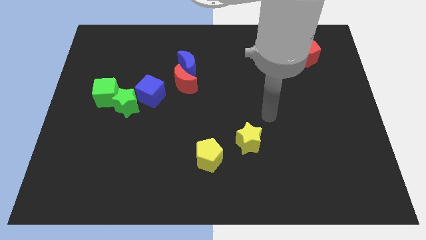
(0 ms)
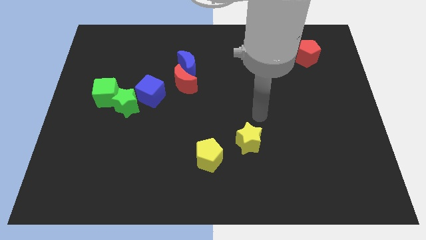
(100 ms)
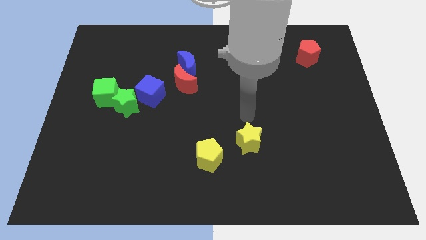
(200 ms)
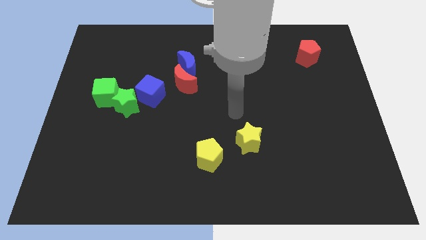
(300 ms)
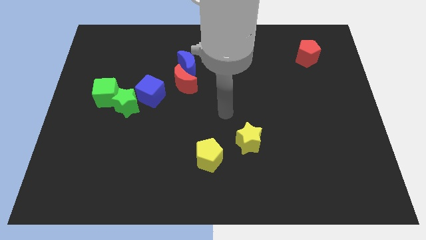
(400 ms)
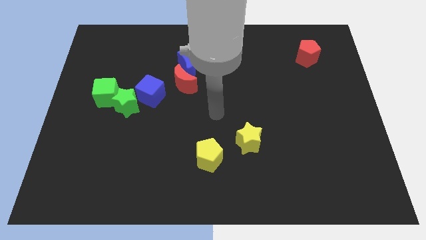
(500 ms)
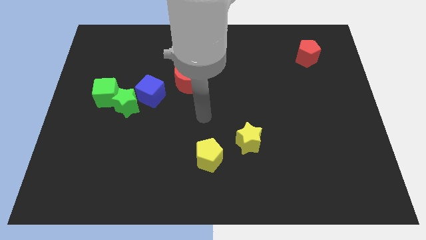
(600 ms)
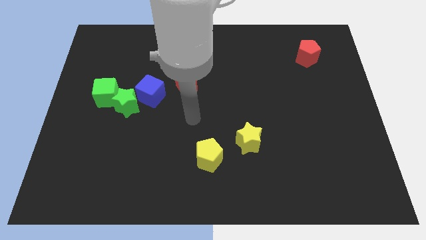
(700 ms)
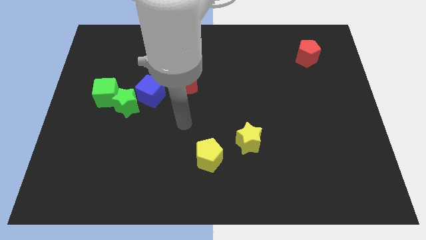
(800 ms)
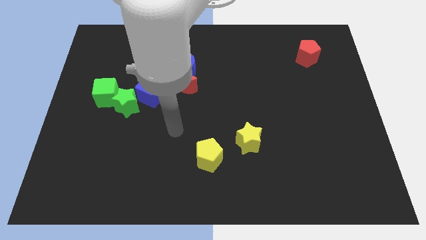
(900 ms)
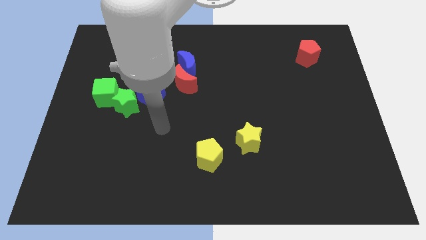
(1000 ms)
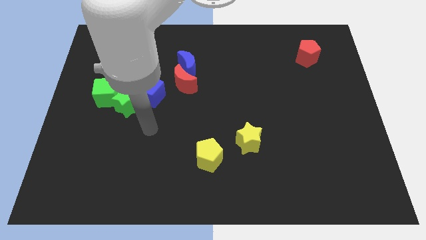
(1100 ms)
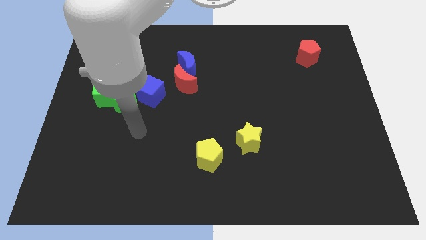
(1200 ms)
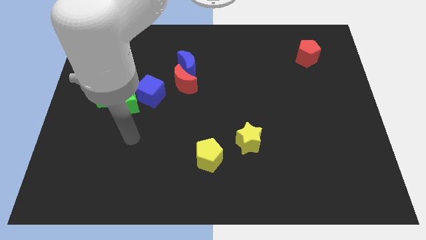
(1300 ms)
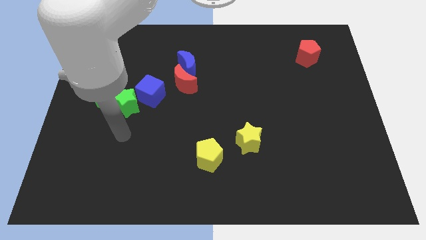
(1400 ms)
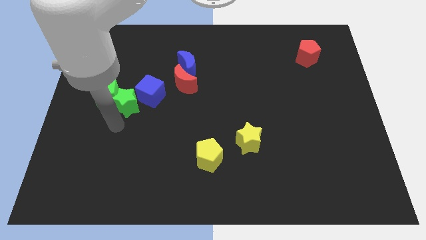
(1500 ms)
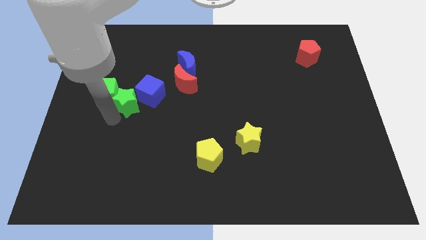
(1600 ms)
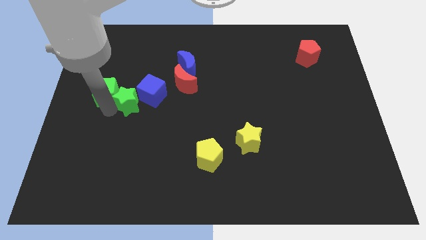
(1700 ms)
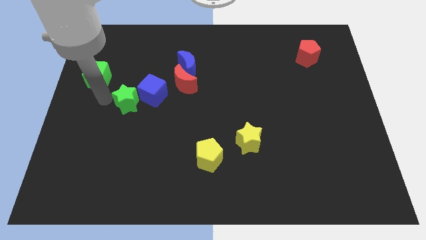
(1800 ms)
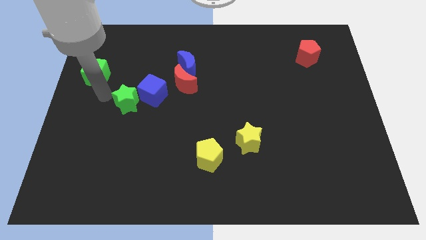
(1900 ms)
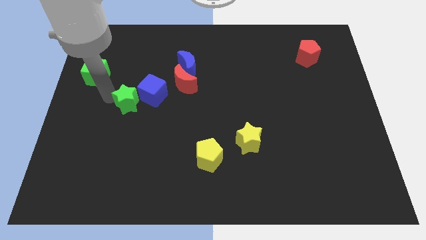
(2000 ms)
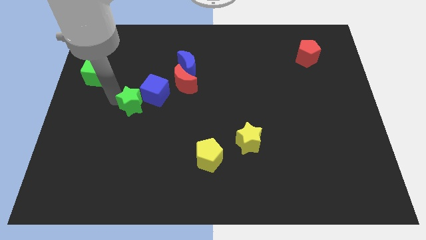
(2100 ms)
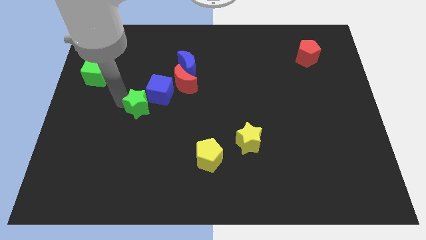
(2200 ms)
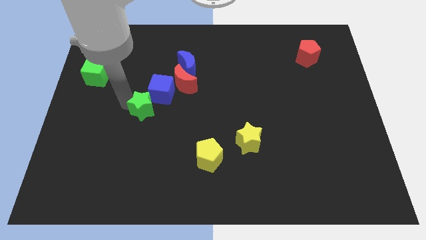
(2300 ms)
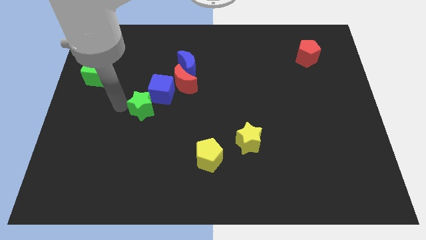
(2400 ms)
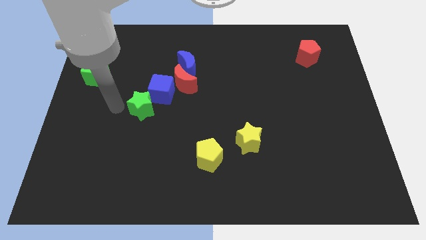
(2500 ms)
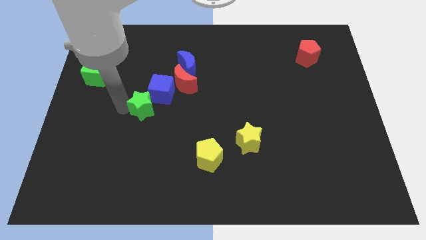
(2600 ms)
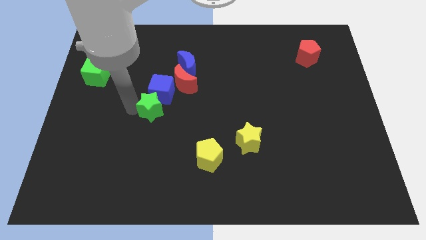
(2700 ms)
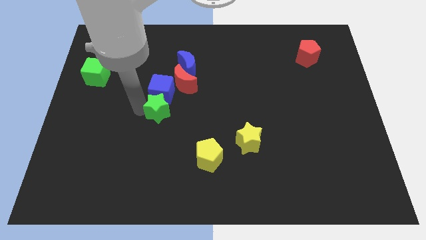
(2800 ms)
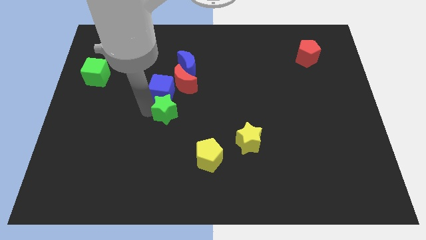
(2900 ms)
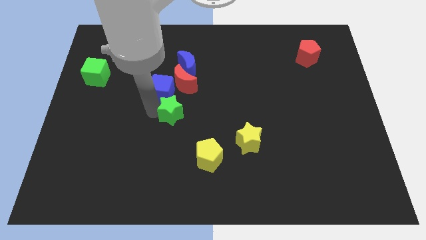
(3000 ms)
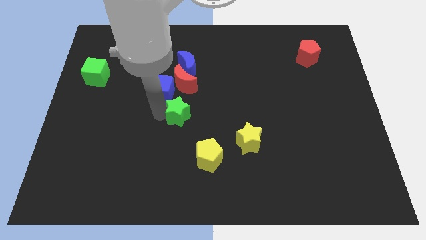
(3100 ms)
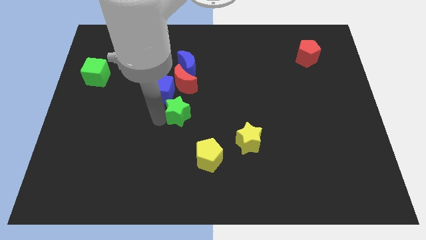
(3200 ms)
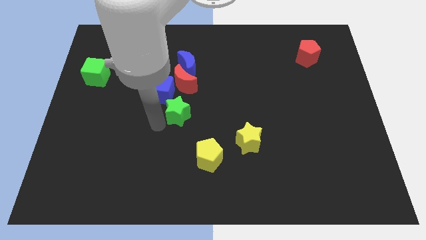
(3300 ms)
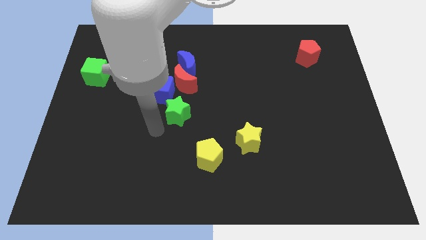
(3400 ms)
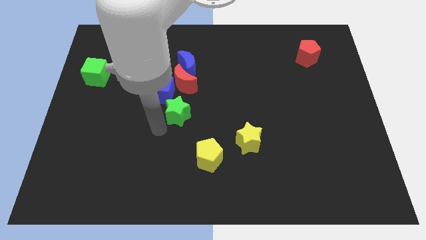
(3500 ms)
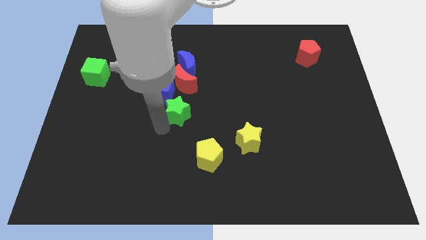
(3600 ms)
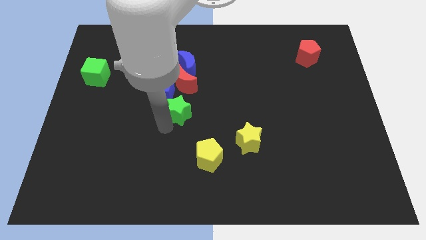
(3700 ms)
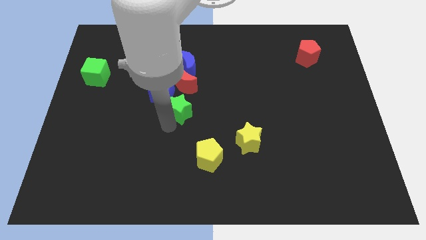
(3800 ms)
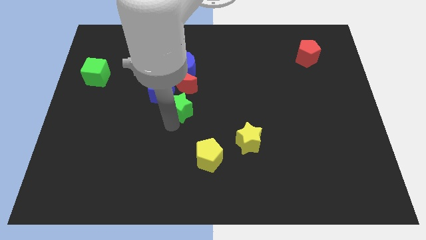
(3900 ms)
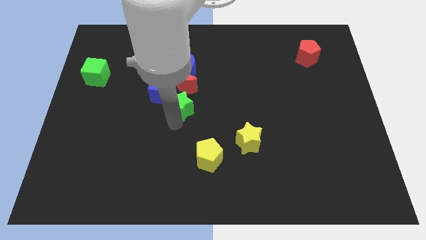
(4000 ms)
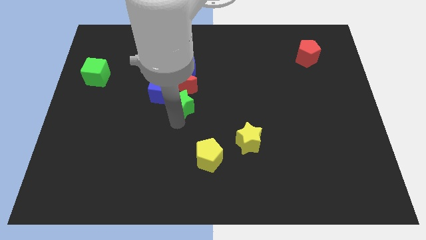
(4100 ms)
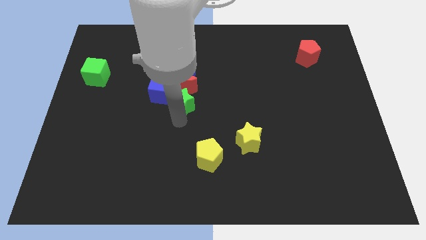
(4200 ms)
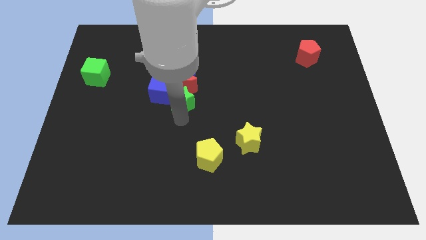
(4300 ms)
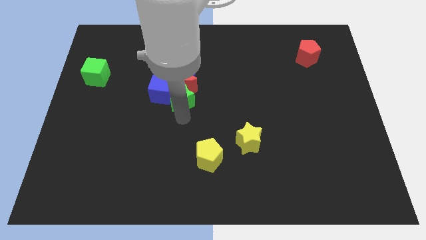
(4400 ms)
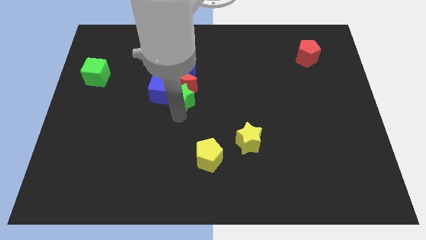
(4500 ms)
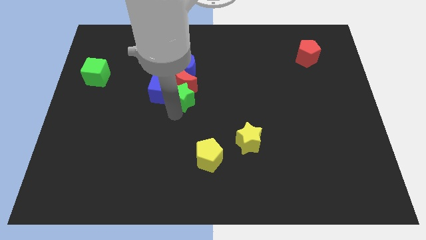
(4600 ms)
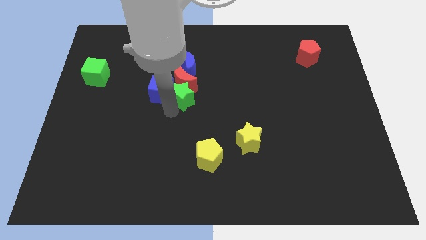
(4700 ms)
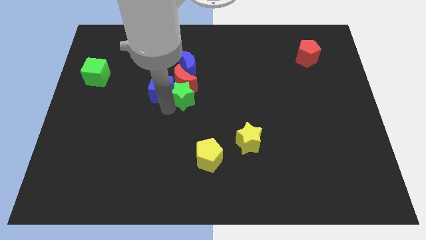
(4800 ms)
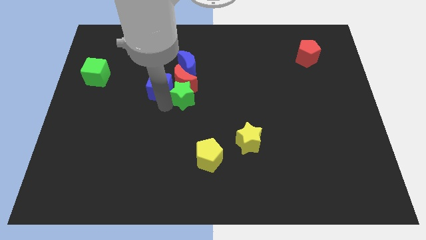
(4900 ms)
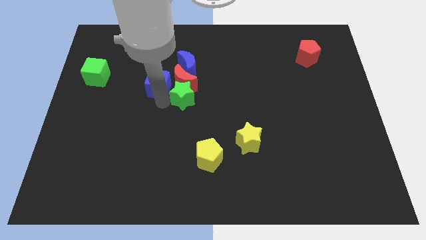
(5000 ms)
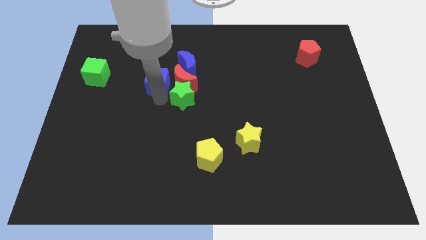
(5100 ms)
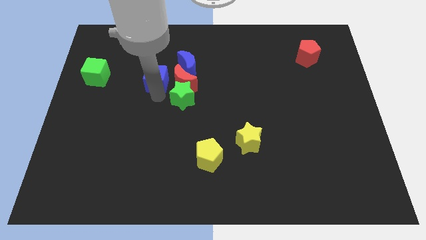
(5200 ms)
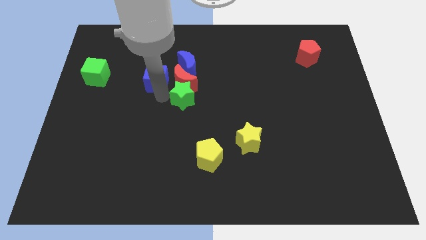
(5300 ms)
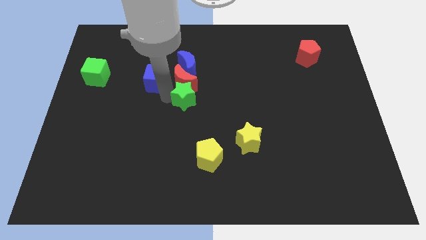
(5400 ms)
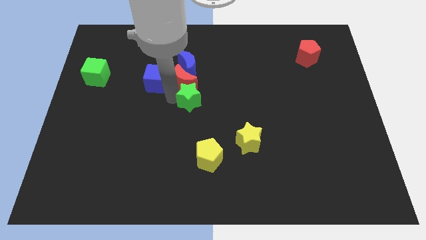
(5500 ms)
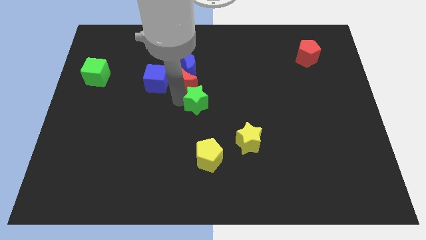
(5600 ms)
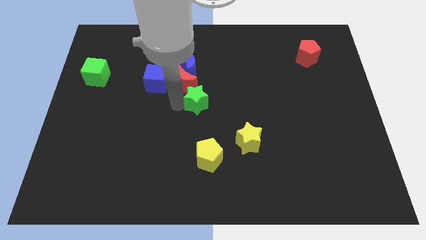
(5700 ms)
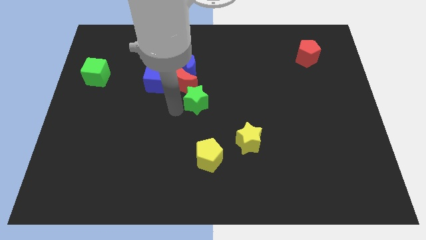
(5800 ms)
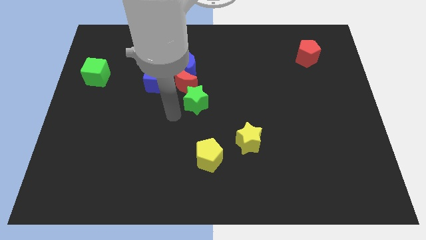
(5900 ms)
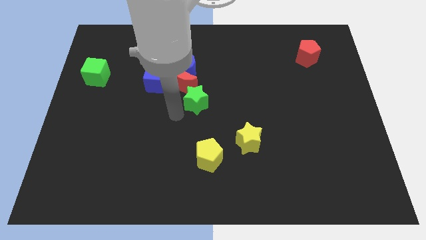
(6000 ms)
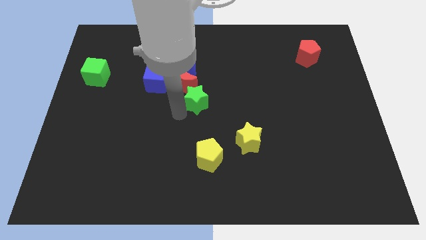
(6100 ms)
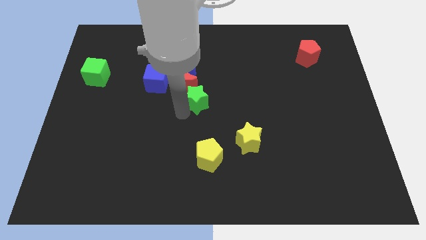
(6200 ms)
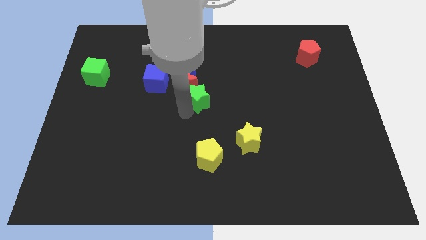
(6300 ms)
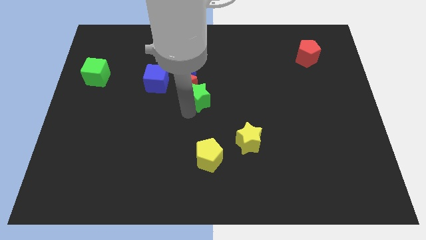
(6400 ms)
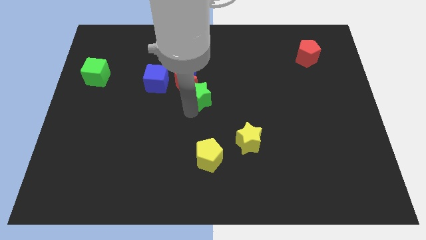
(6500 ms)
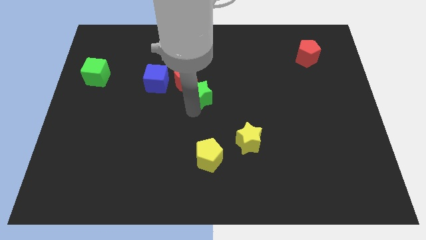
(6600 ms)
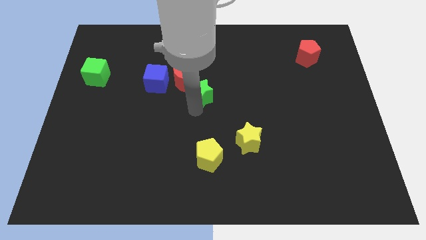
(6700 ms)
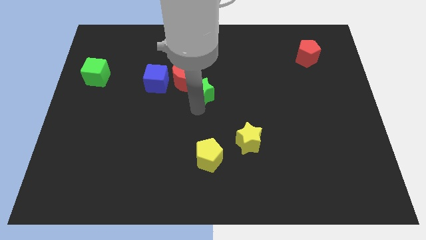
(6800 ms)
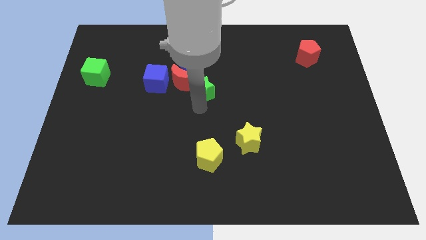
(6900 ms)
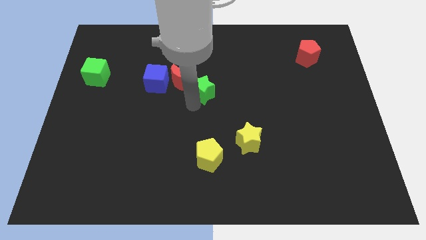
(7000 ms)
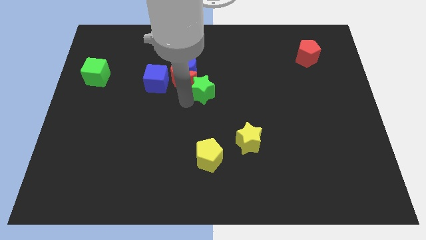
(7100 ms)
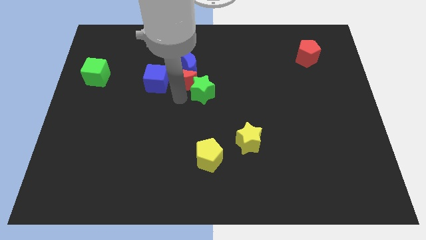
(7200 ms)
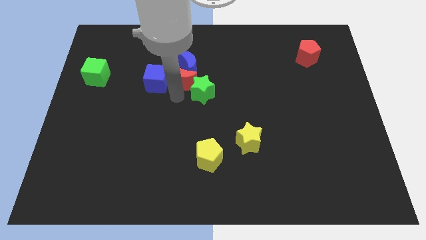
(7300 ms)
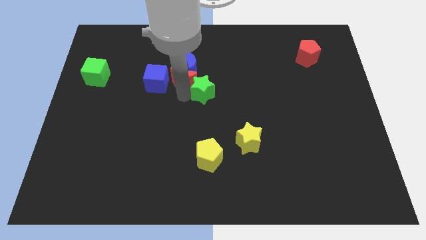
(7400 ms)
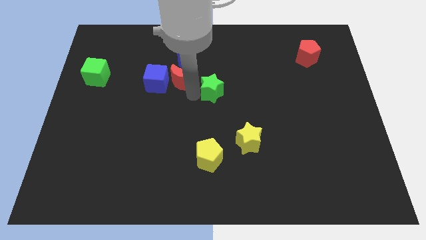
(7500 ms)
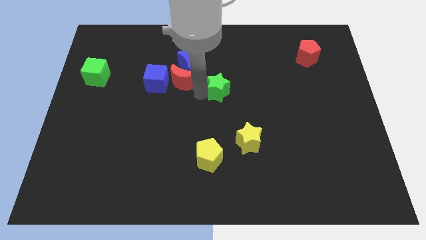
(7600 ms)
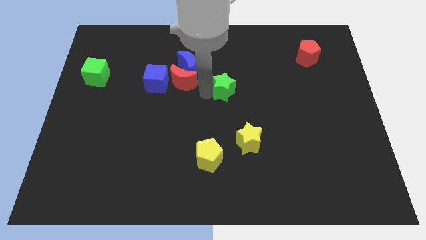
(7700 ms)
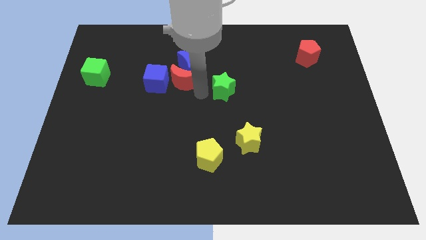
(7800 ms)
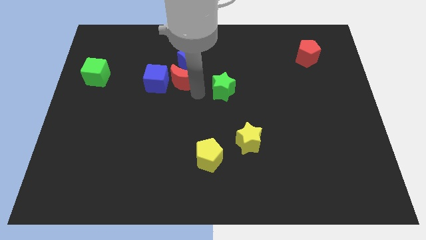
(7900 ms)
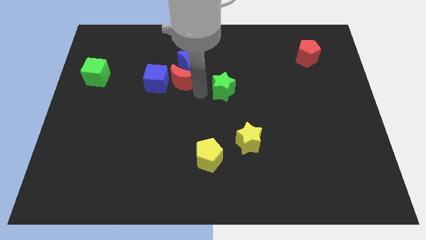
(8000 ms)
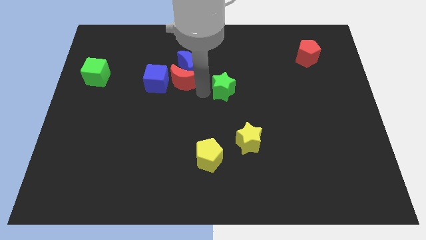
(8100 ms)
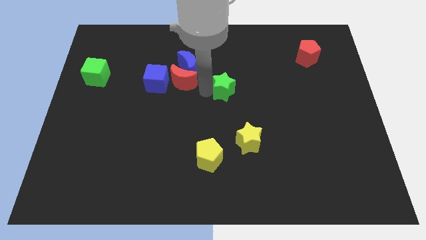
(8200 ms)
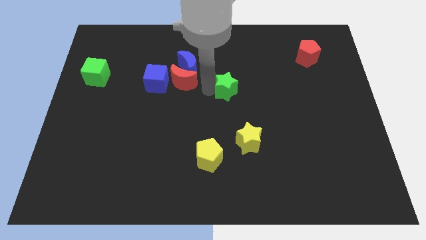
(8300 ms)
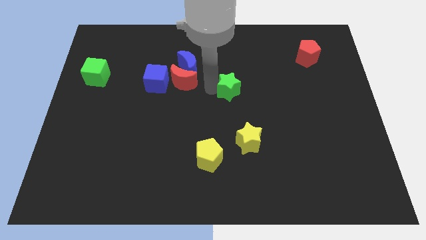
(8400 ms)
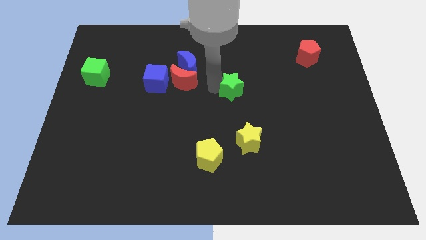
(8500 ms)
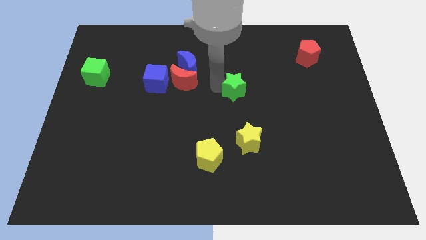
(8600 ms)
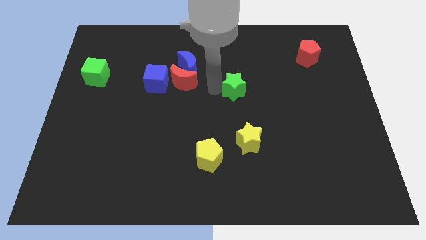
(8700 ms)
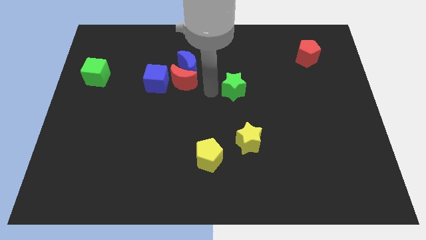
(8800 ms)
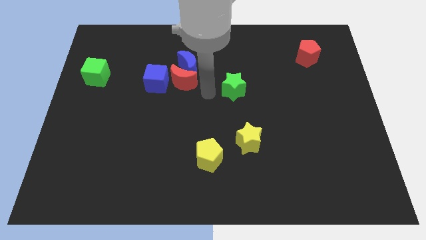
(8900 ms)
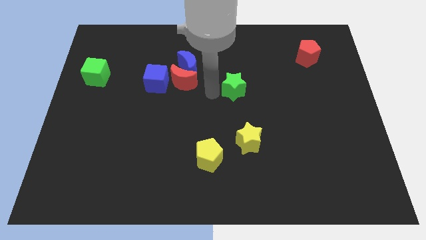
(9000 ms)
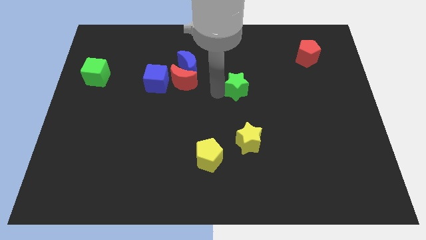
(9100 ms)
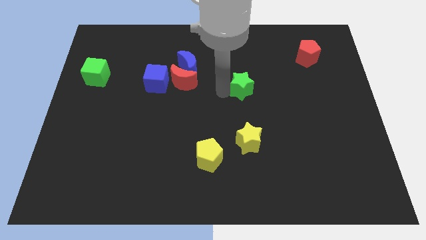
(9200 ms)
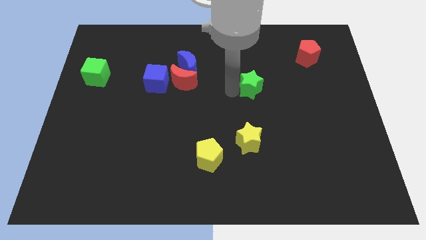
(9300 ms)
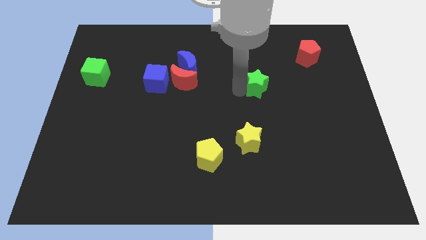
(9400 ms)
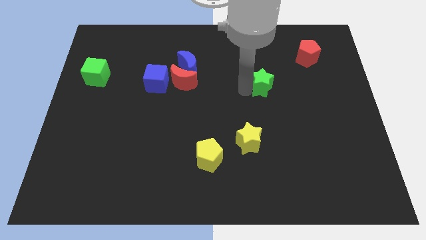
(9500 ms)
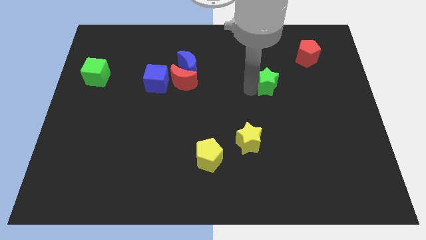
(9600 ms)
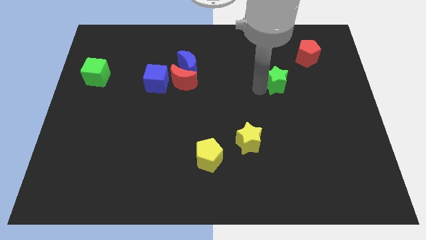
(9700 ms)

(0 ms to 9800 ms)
put the green star to the bottom left side of the red pentagon
